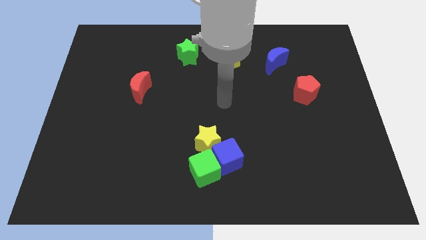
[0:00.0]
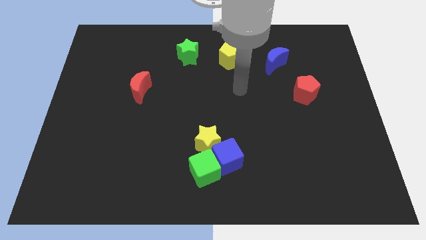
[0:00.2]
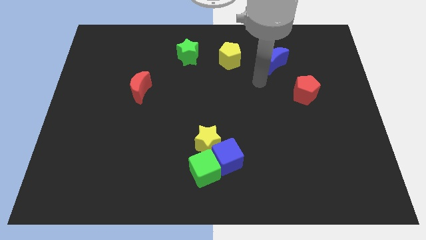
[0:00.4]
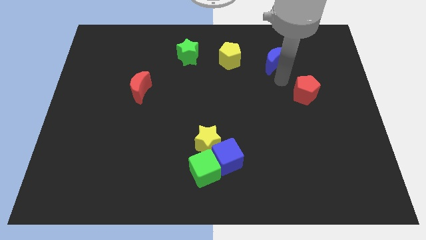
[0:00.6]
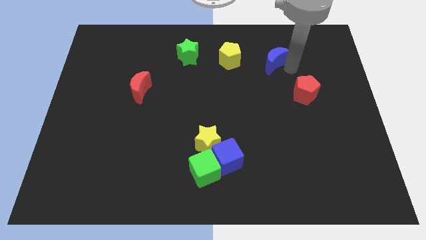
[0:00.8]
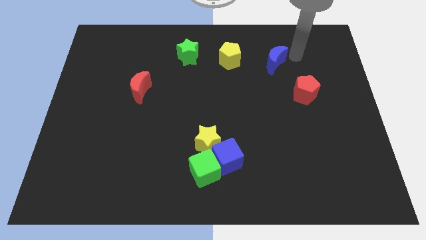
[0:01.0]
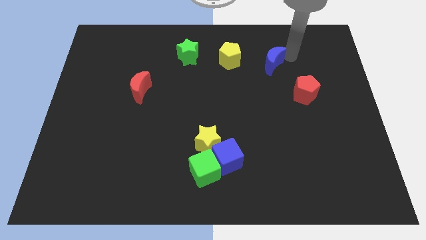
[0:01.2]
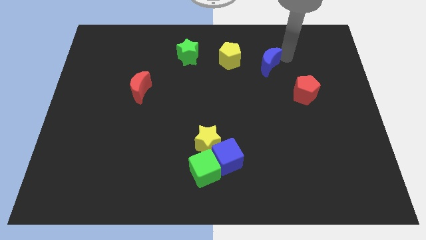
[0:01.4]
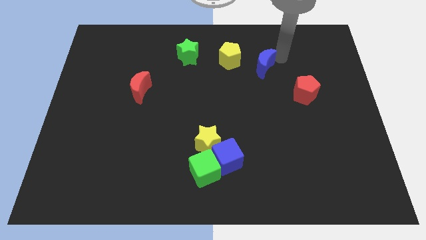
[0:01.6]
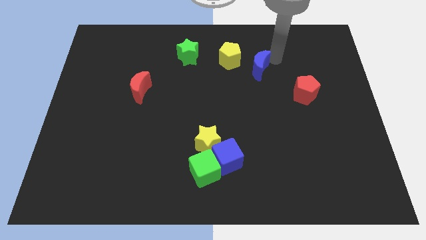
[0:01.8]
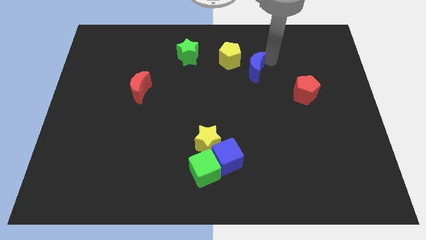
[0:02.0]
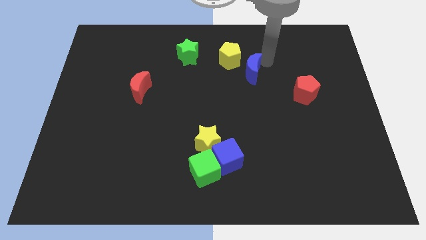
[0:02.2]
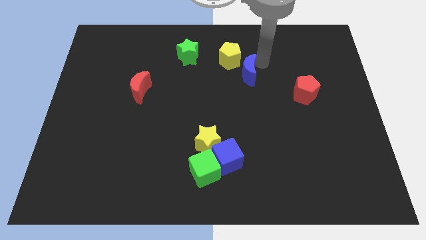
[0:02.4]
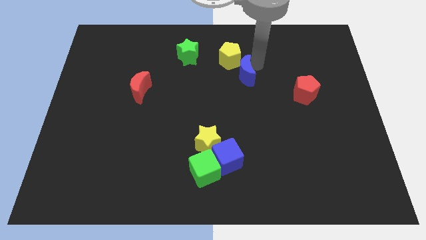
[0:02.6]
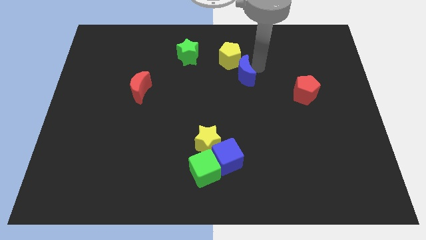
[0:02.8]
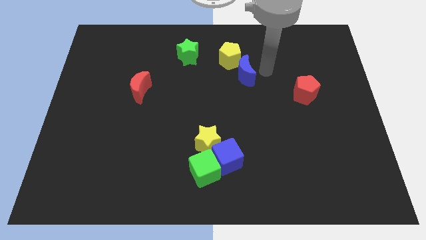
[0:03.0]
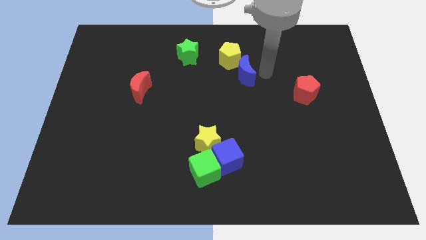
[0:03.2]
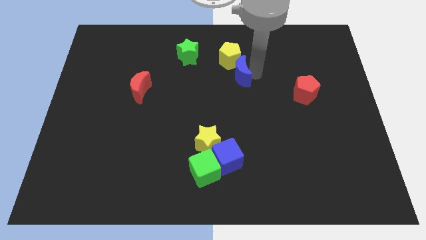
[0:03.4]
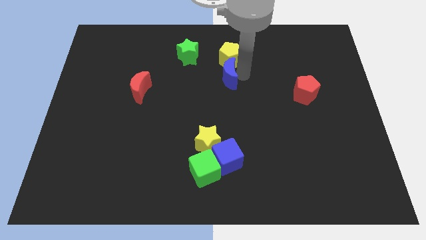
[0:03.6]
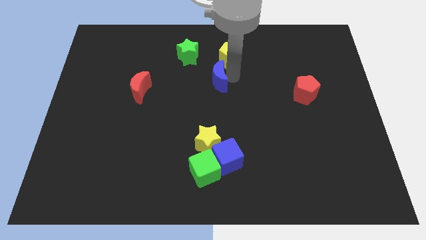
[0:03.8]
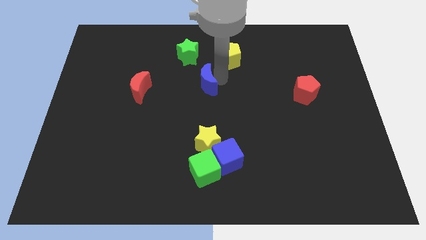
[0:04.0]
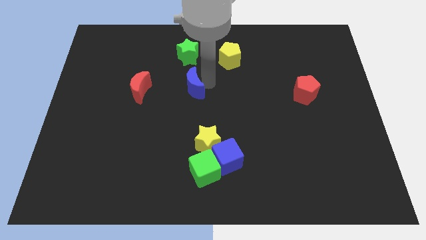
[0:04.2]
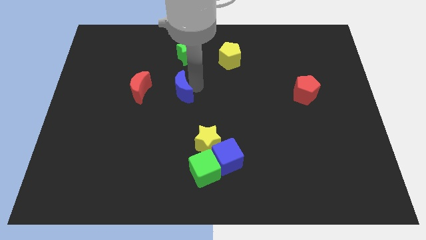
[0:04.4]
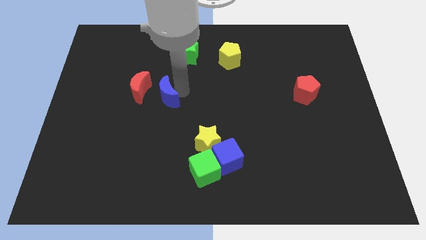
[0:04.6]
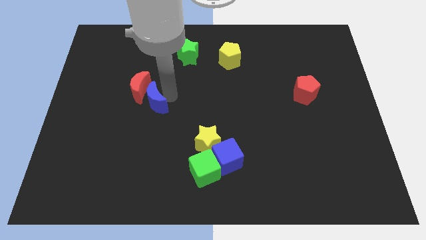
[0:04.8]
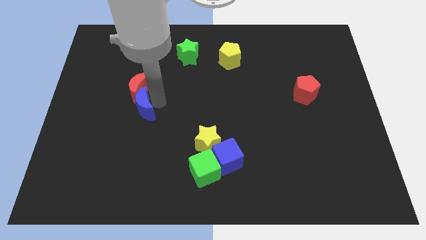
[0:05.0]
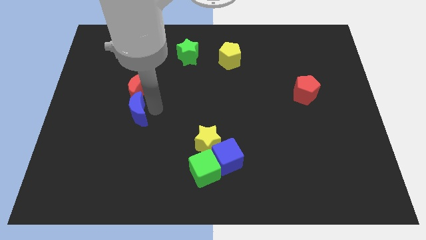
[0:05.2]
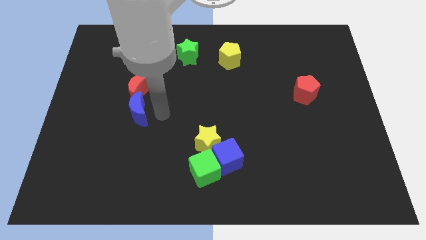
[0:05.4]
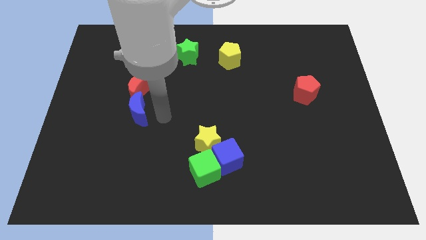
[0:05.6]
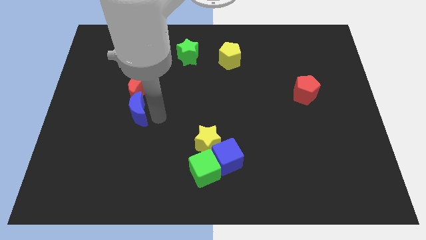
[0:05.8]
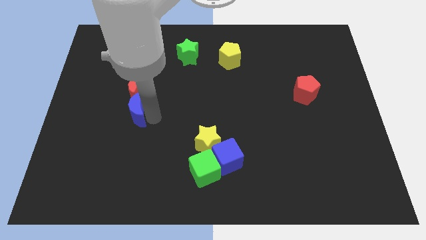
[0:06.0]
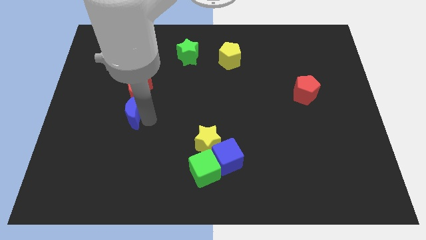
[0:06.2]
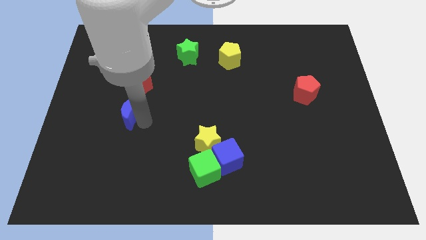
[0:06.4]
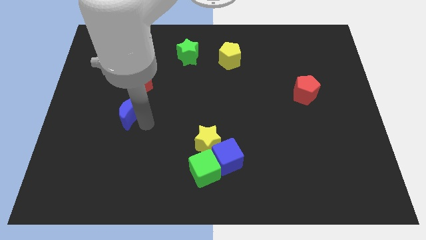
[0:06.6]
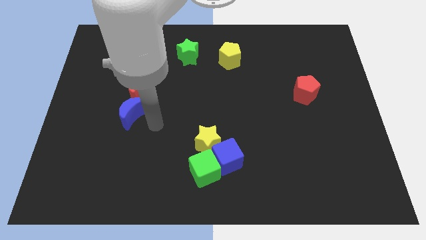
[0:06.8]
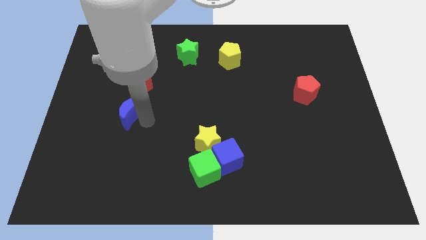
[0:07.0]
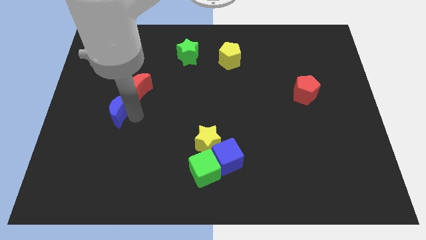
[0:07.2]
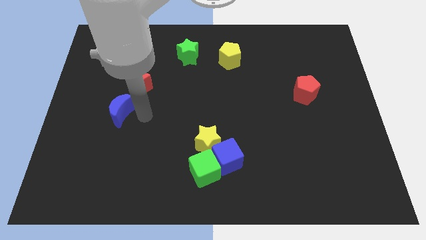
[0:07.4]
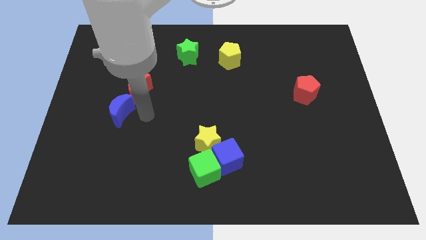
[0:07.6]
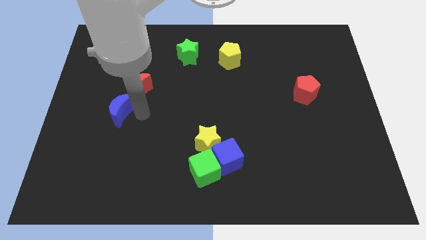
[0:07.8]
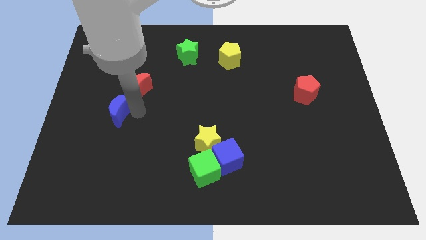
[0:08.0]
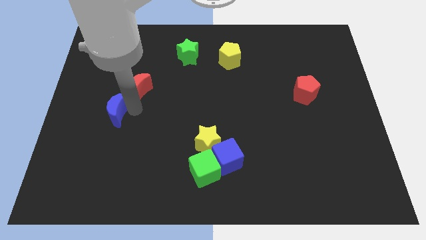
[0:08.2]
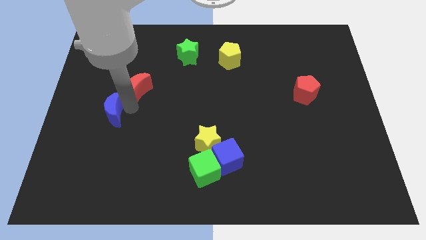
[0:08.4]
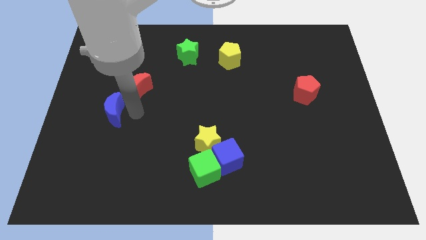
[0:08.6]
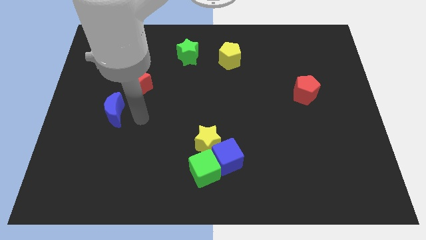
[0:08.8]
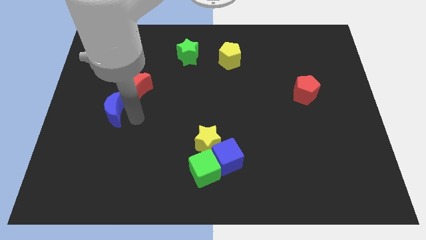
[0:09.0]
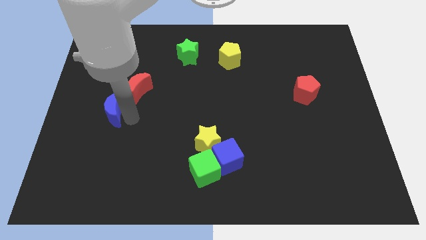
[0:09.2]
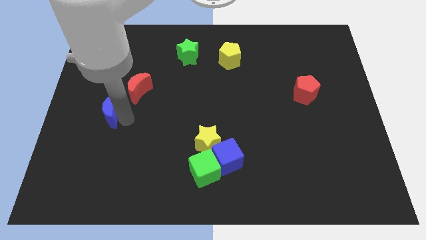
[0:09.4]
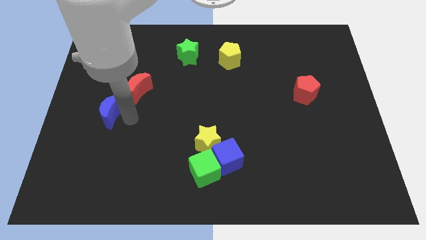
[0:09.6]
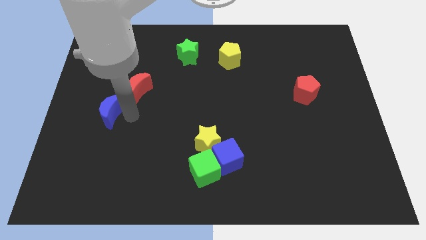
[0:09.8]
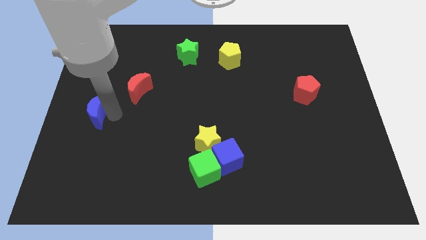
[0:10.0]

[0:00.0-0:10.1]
put the blue moon to the left side of the board
